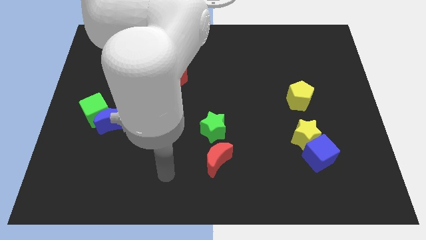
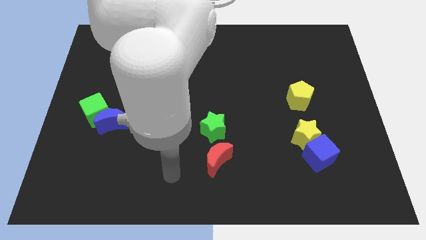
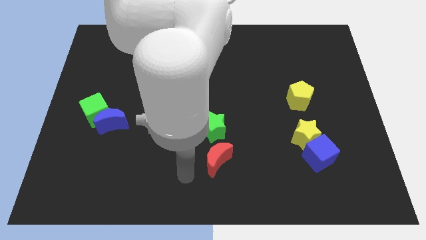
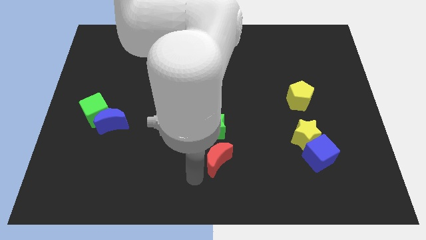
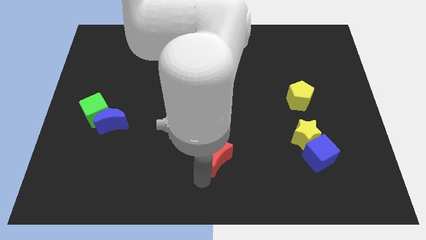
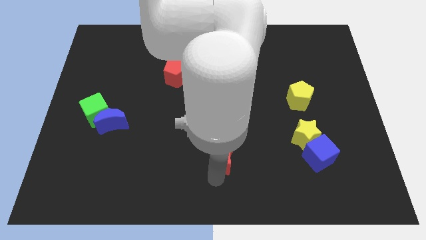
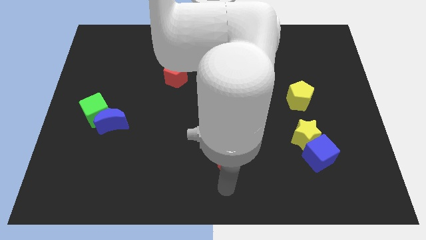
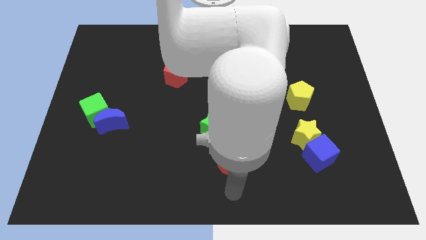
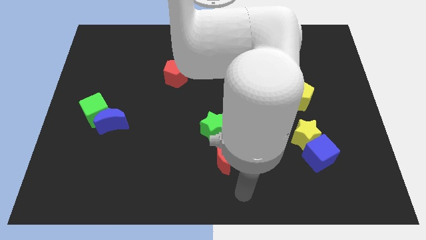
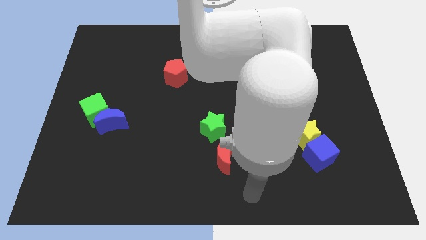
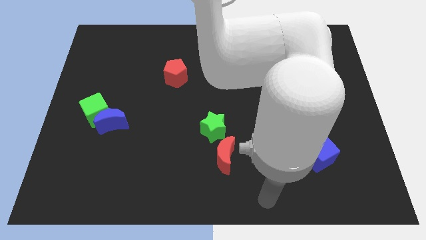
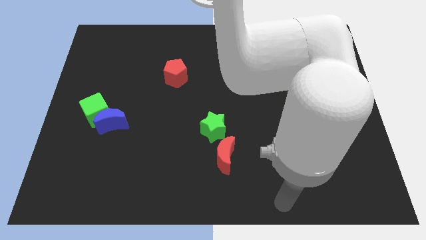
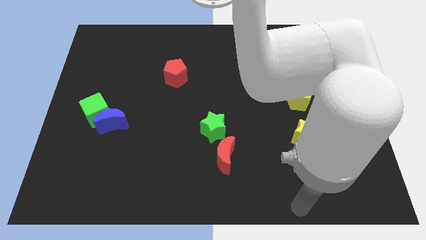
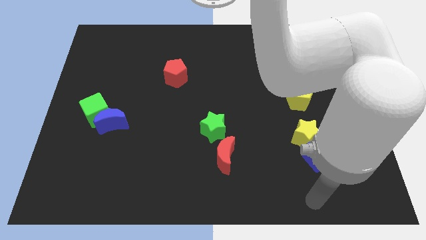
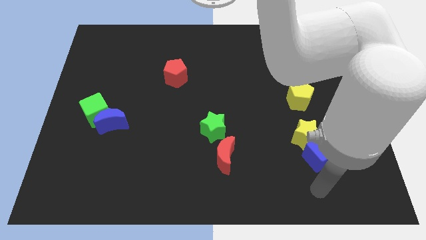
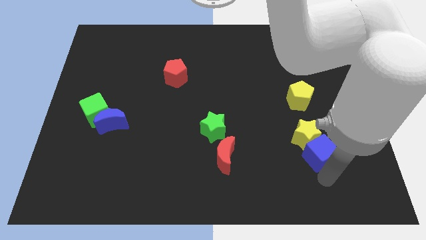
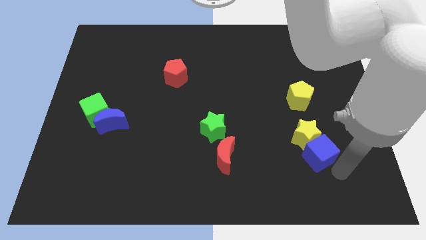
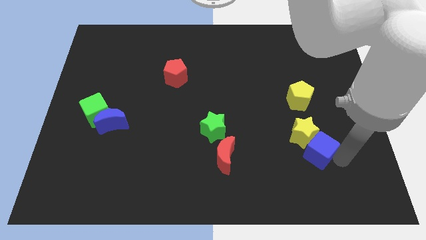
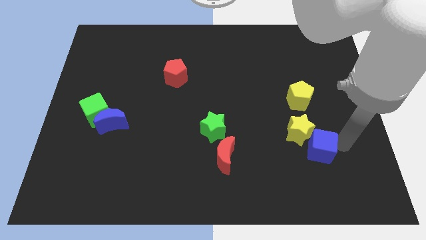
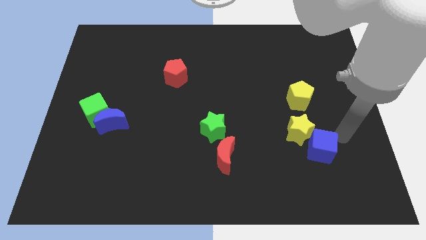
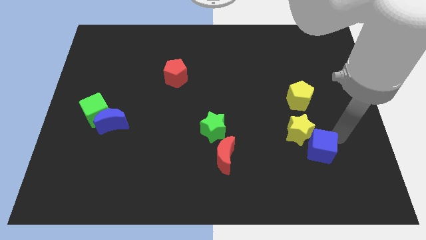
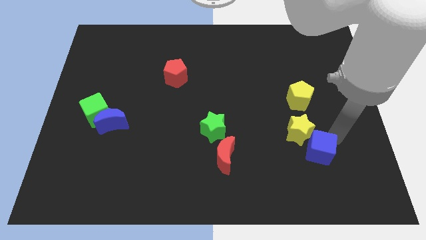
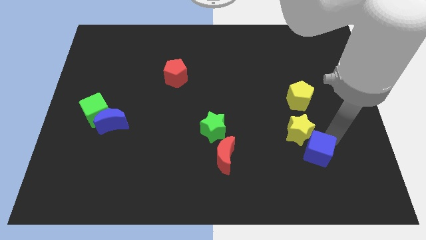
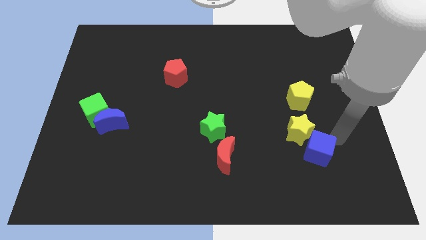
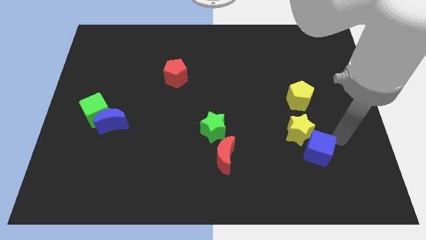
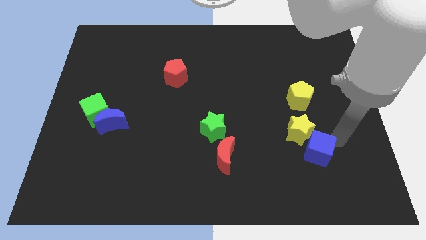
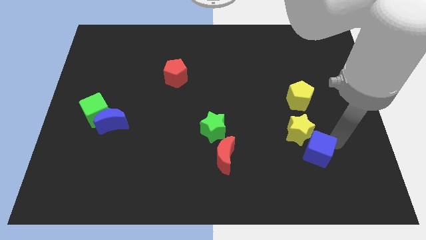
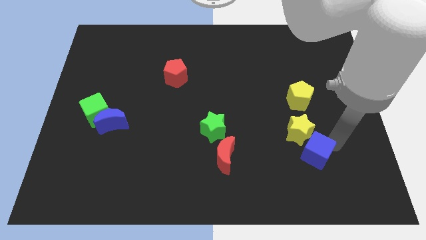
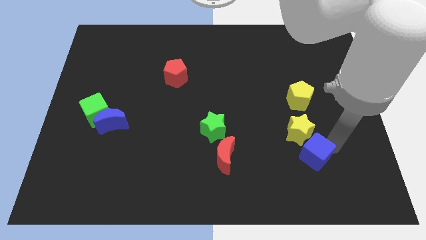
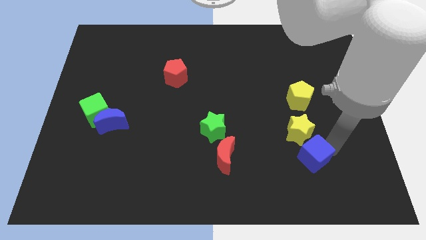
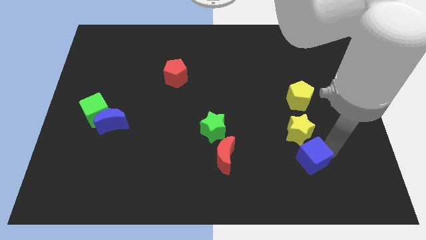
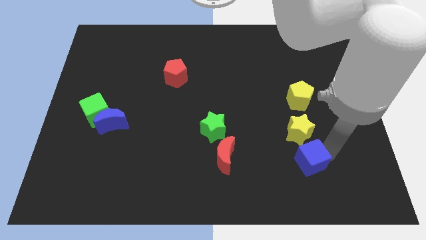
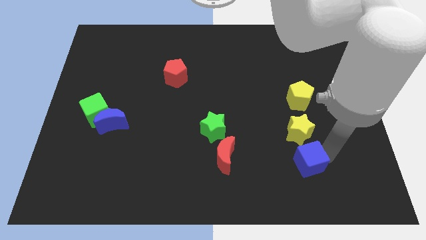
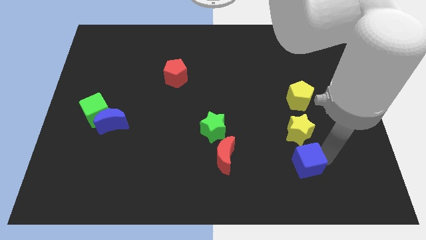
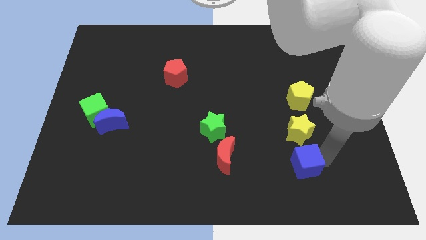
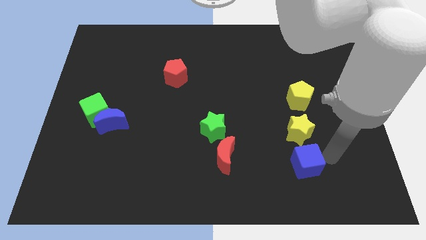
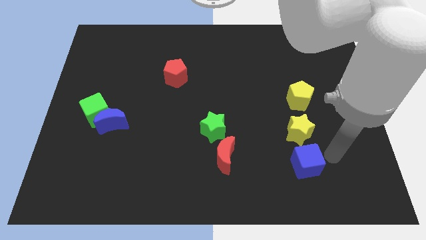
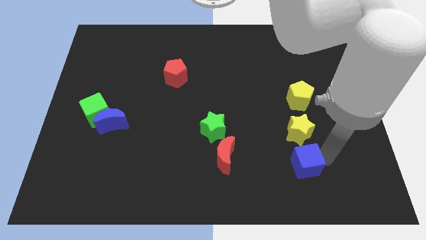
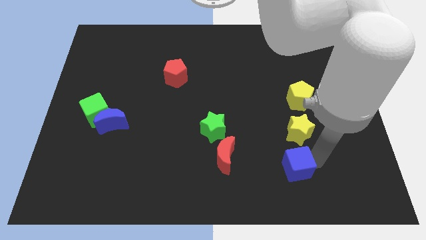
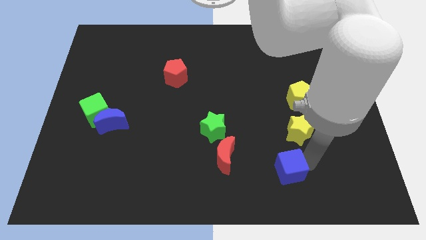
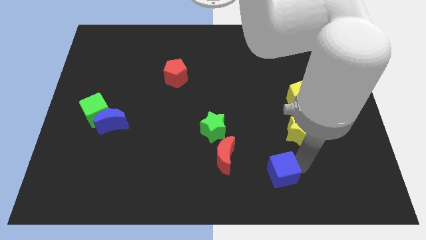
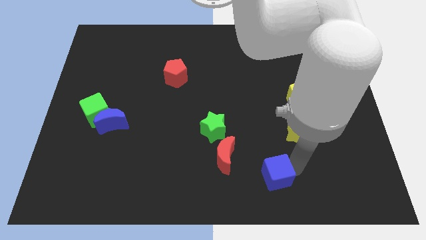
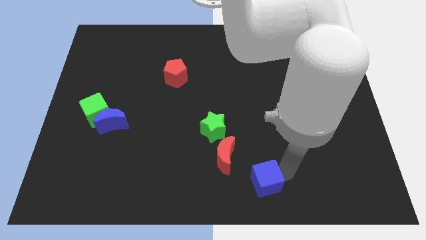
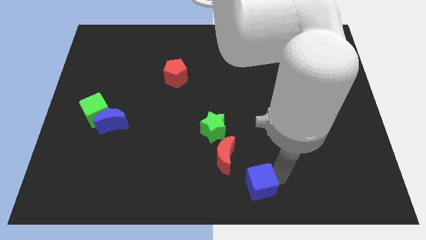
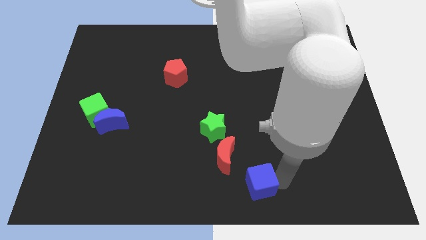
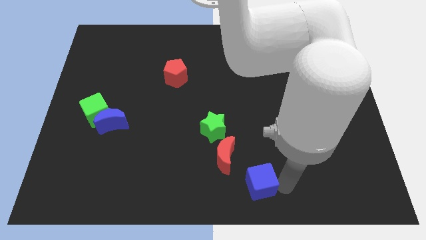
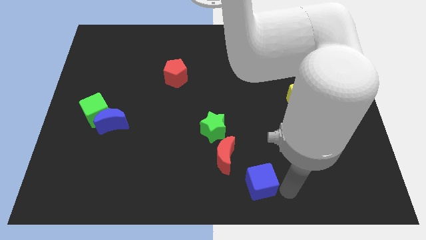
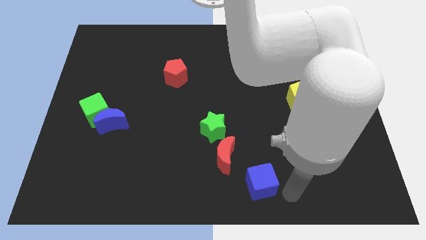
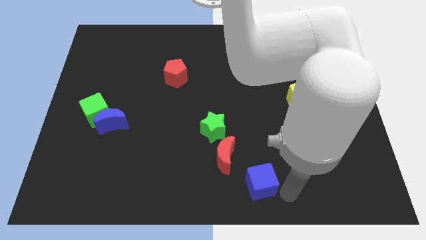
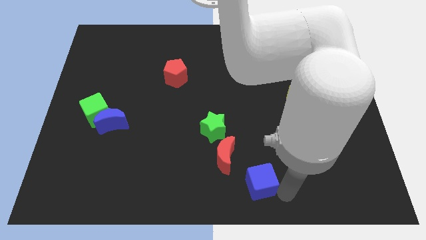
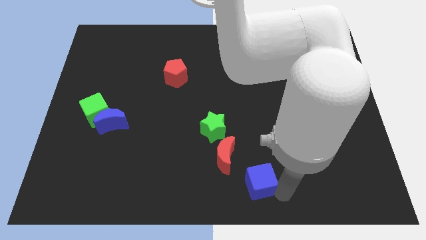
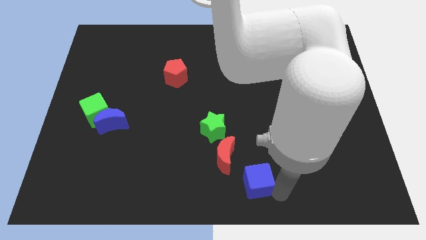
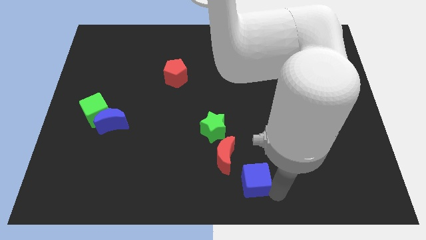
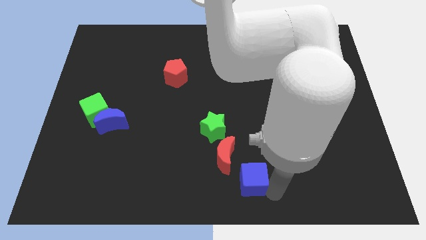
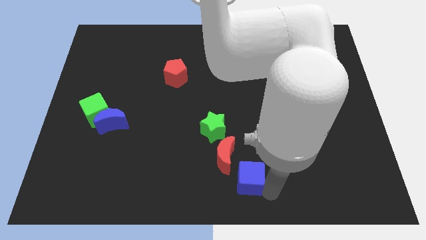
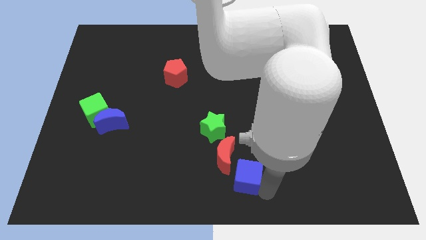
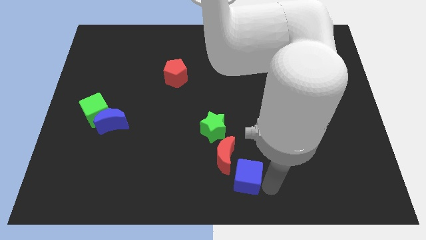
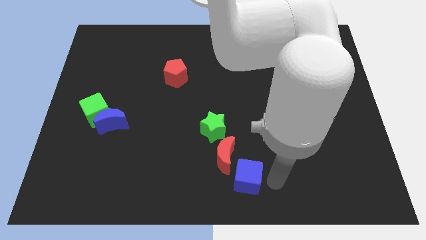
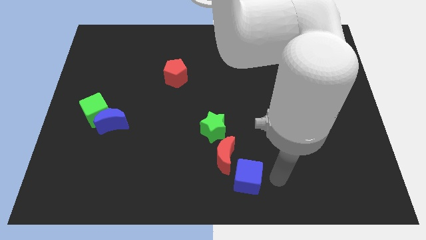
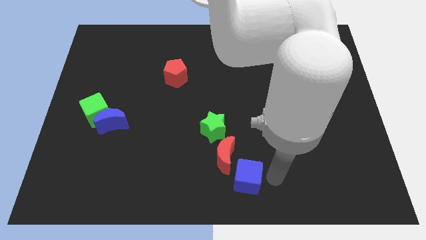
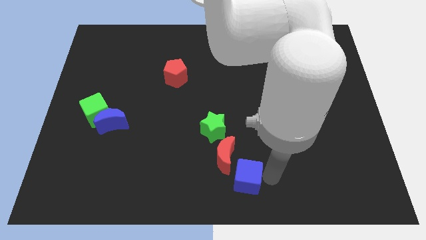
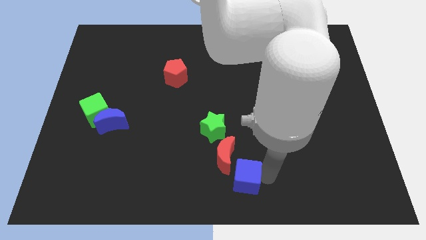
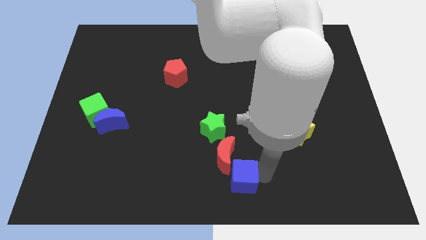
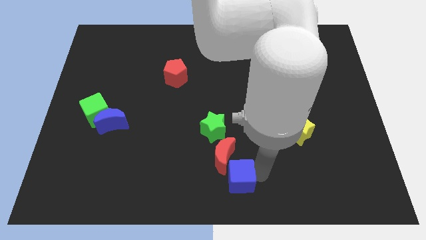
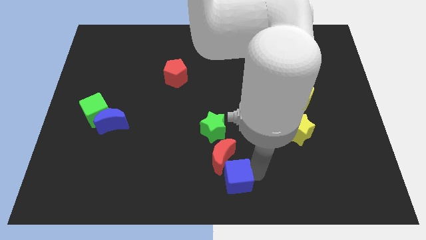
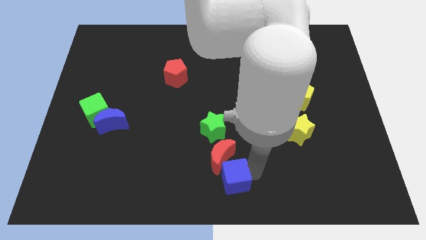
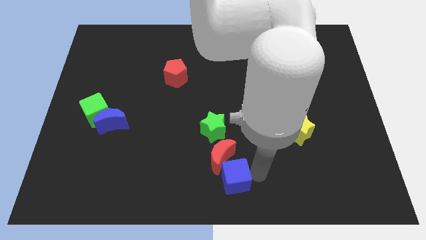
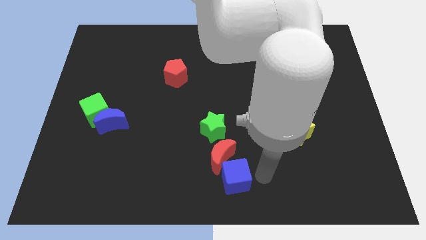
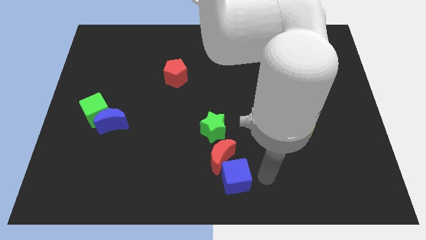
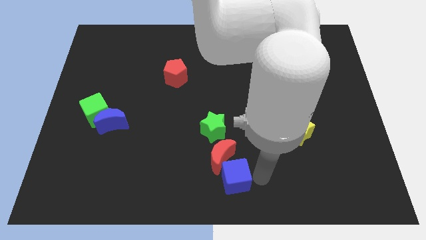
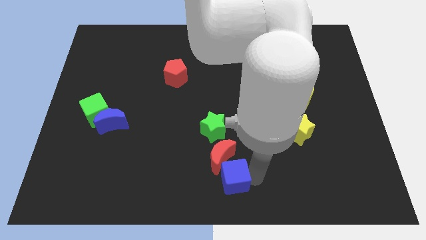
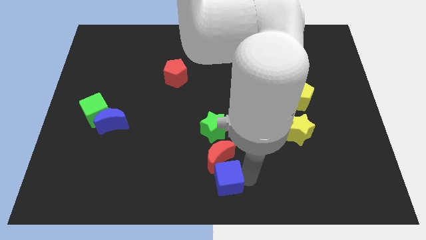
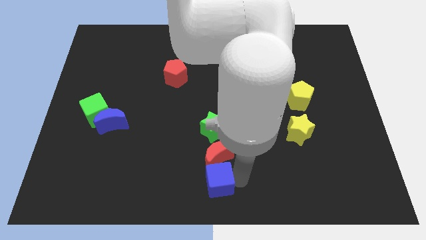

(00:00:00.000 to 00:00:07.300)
push the blue cube to the left

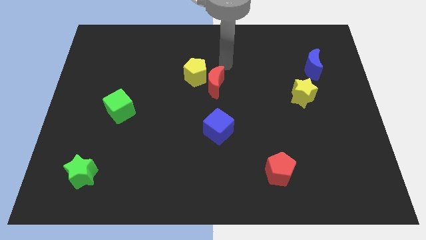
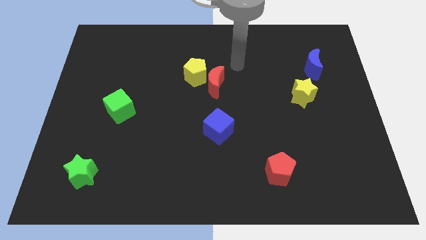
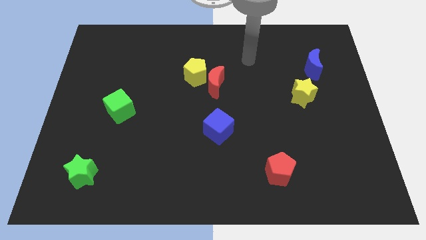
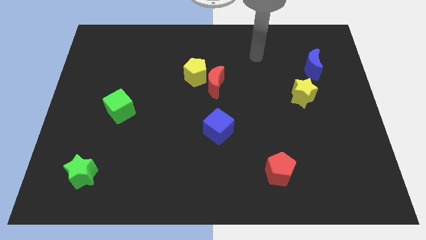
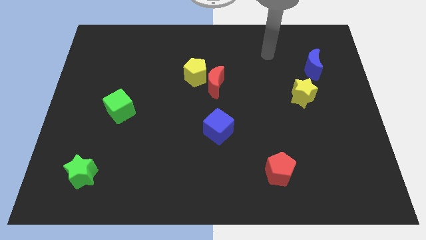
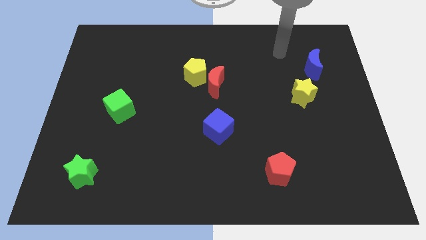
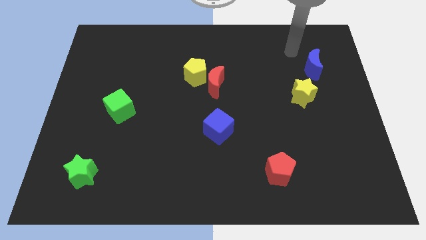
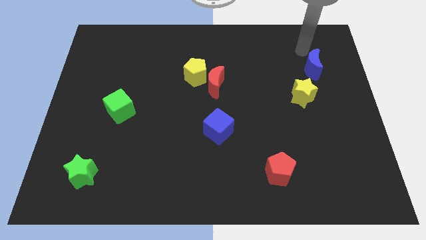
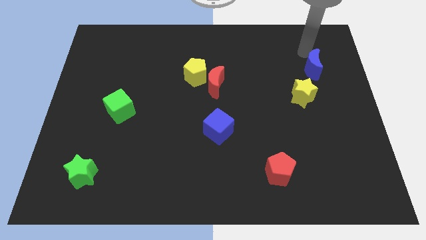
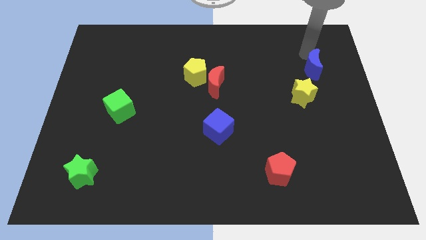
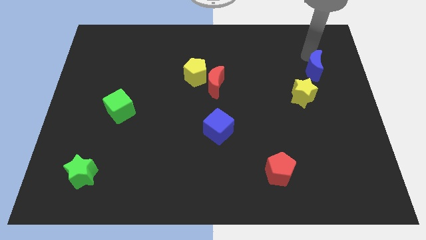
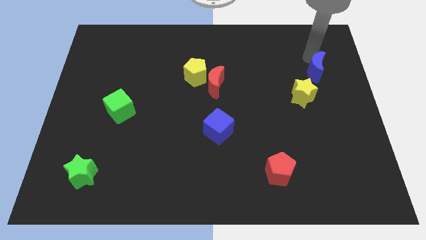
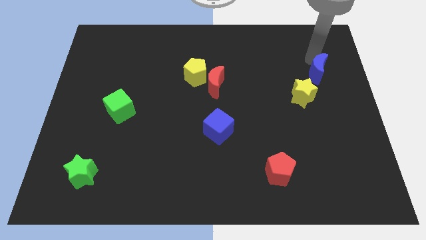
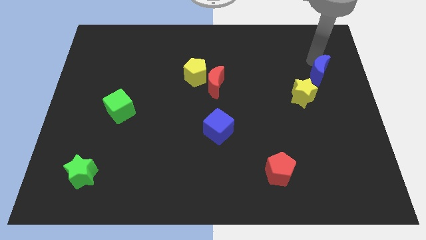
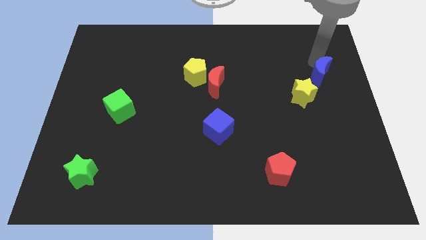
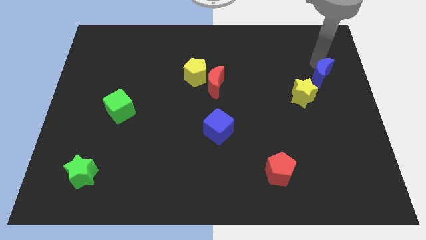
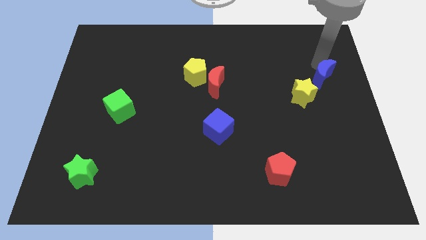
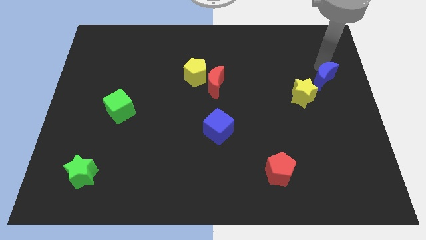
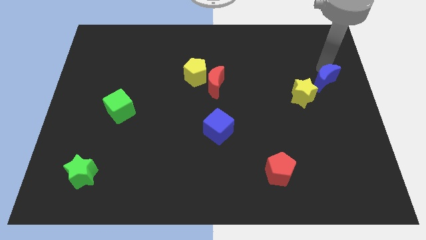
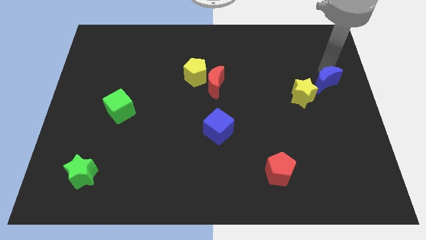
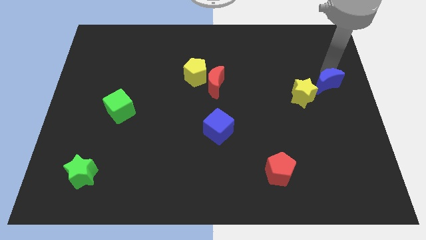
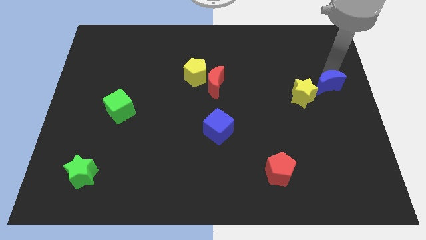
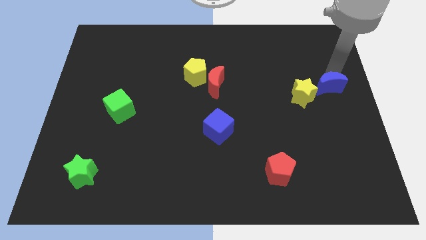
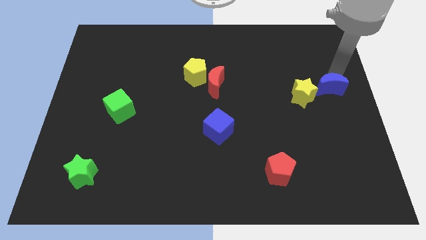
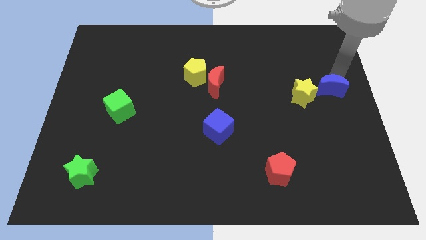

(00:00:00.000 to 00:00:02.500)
move the blue moon down a little bit
